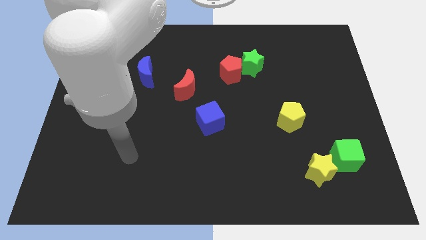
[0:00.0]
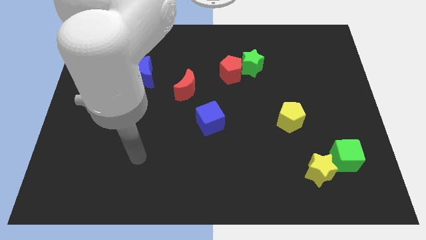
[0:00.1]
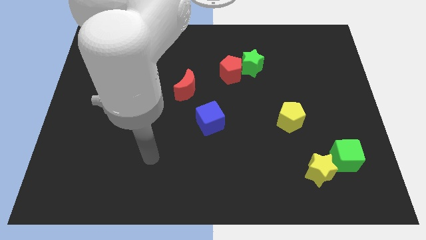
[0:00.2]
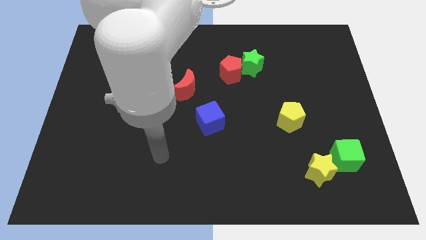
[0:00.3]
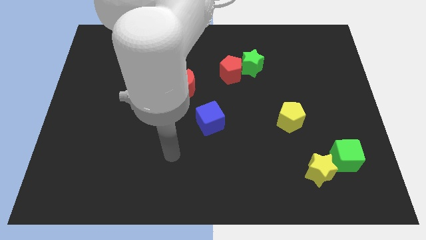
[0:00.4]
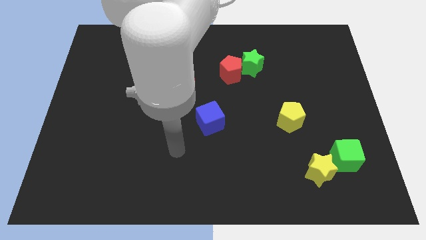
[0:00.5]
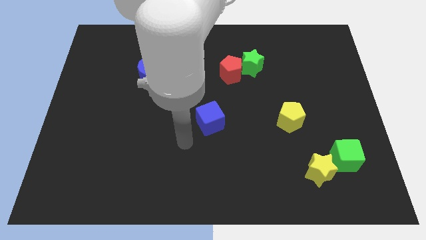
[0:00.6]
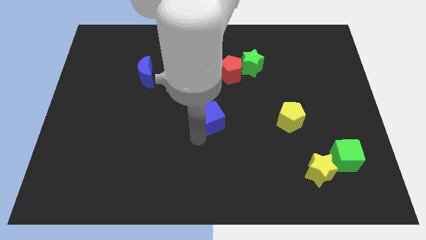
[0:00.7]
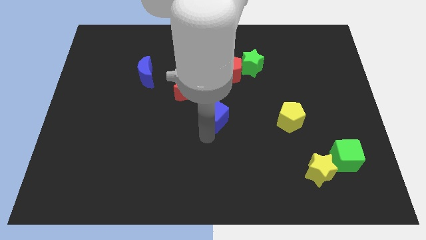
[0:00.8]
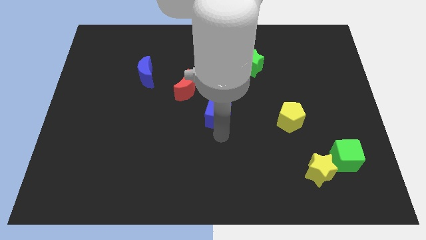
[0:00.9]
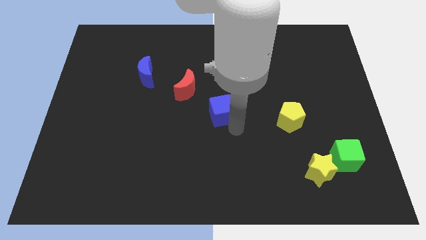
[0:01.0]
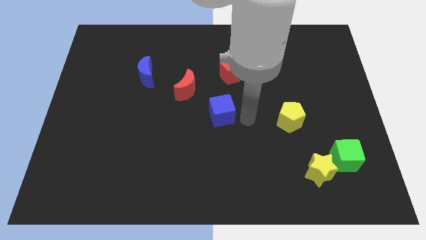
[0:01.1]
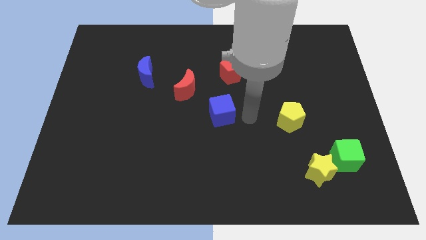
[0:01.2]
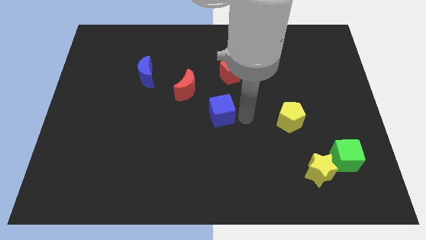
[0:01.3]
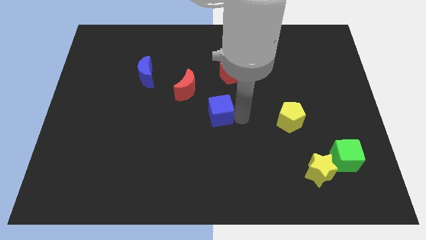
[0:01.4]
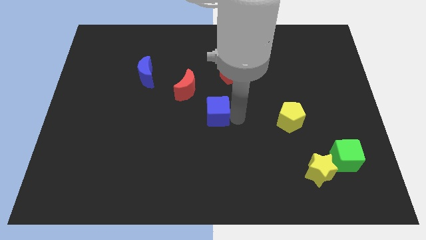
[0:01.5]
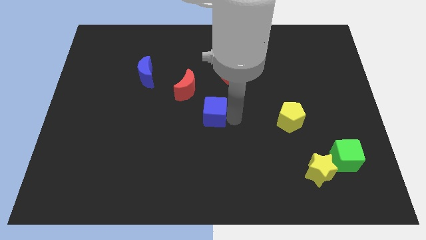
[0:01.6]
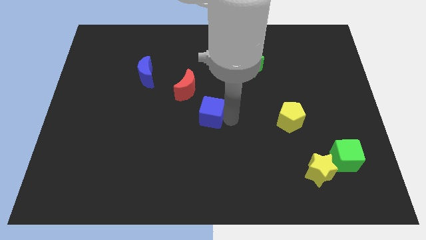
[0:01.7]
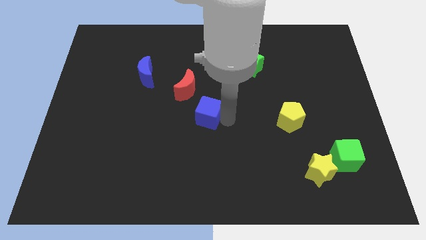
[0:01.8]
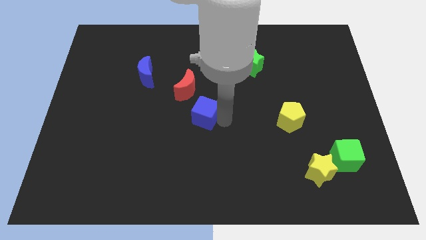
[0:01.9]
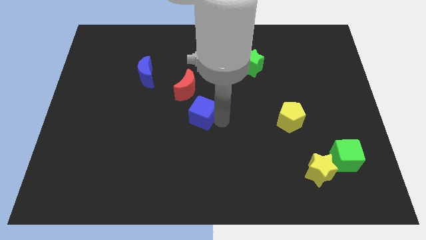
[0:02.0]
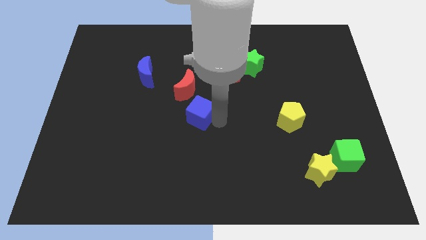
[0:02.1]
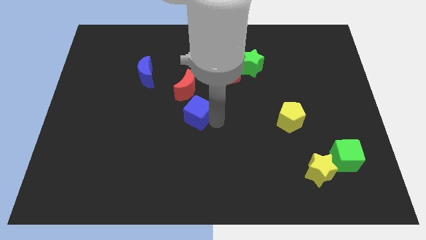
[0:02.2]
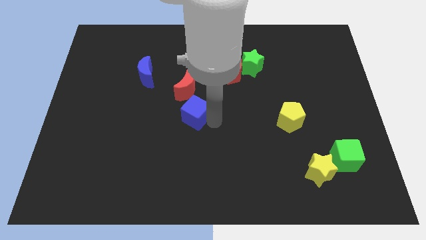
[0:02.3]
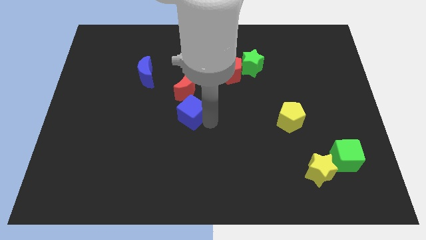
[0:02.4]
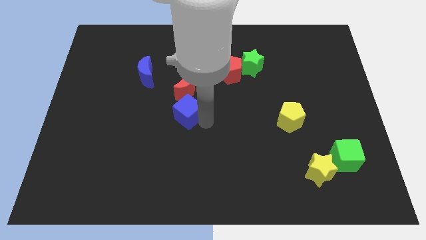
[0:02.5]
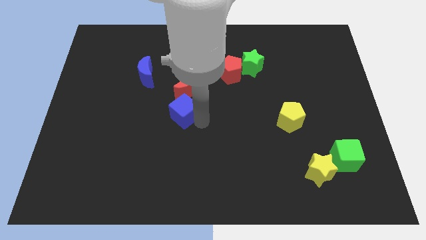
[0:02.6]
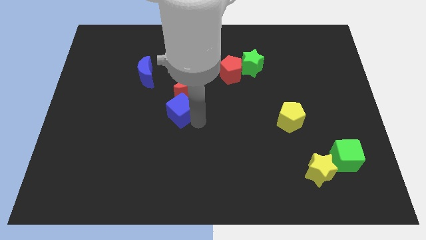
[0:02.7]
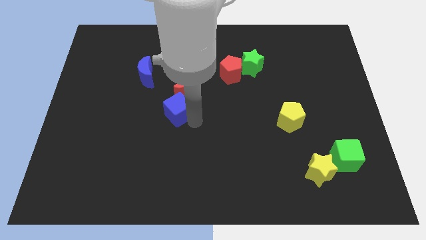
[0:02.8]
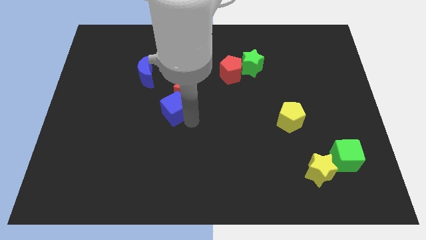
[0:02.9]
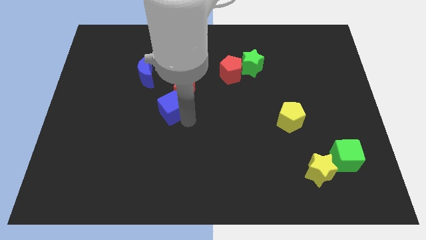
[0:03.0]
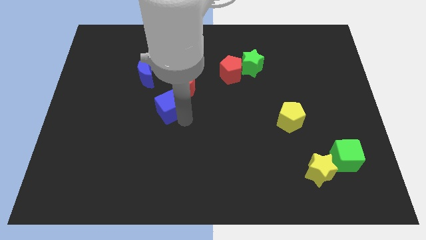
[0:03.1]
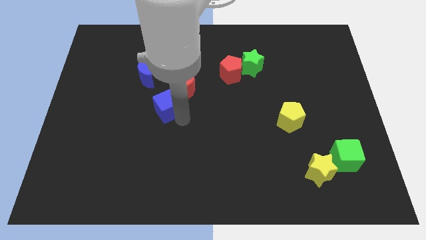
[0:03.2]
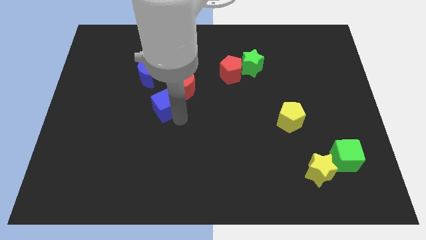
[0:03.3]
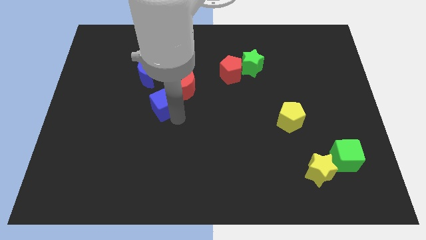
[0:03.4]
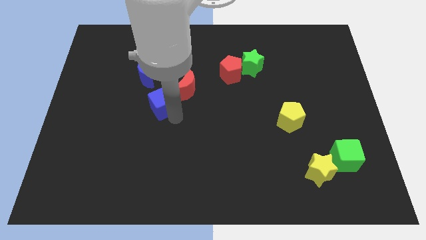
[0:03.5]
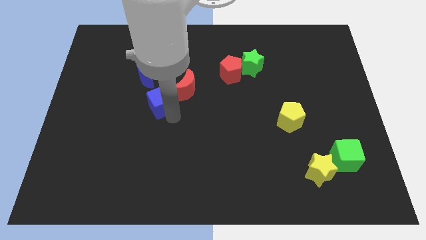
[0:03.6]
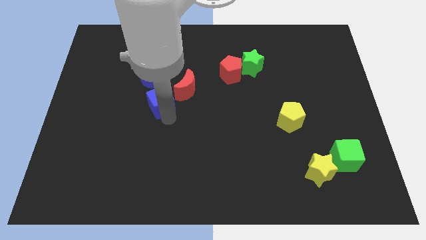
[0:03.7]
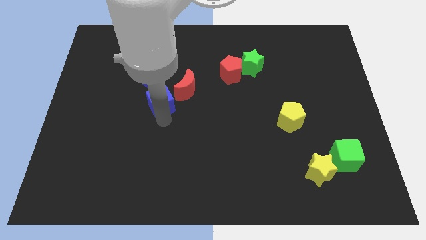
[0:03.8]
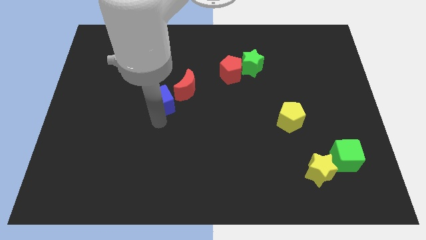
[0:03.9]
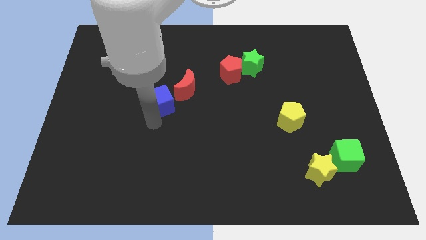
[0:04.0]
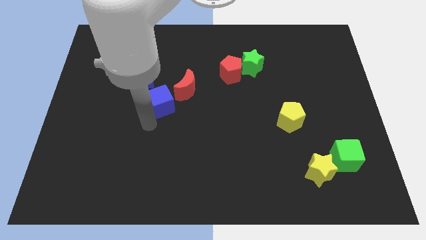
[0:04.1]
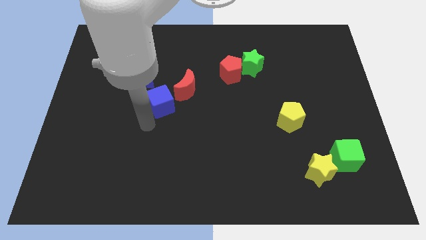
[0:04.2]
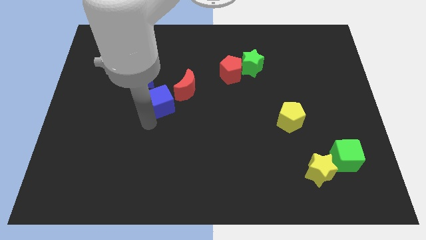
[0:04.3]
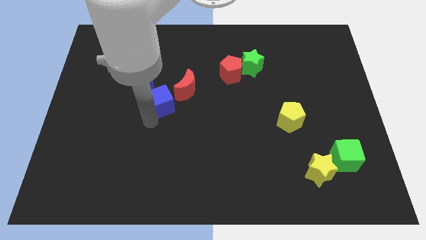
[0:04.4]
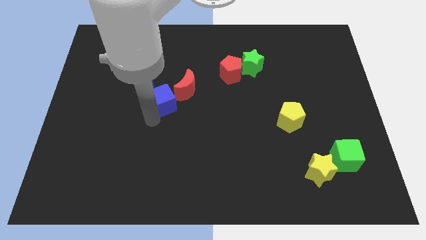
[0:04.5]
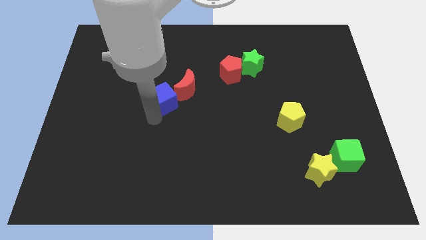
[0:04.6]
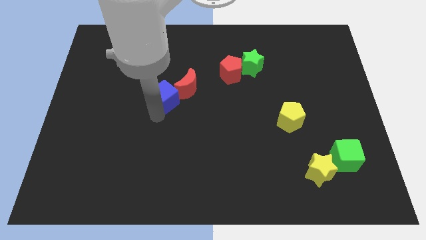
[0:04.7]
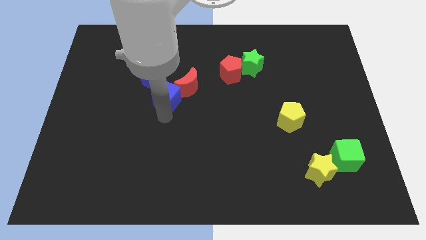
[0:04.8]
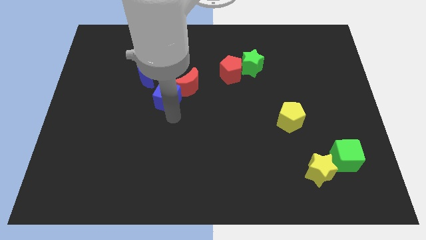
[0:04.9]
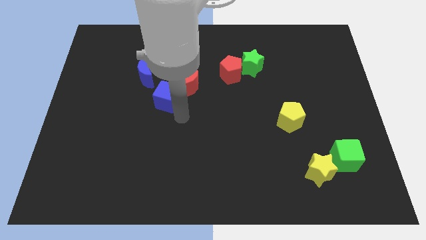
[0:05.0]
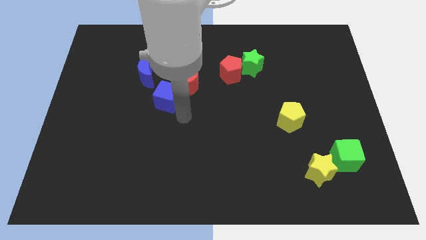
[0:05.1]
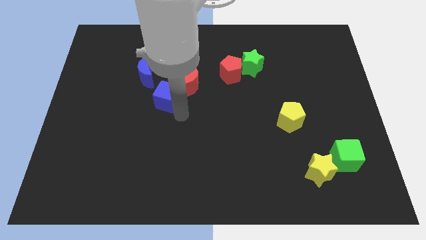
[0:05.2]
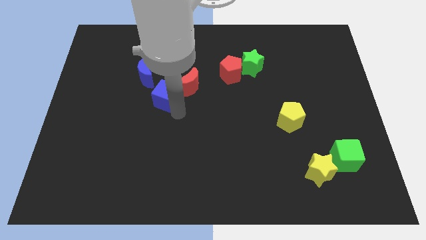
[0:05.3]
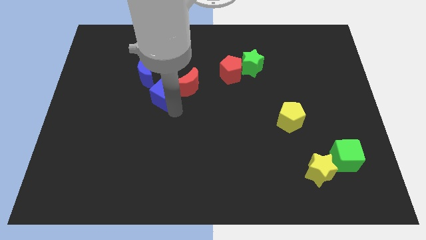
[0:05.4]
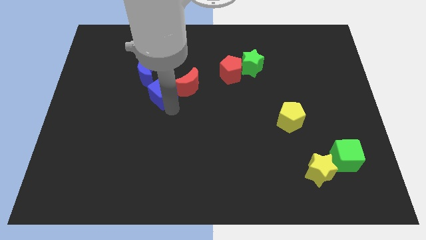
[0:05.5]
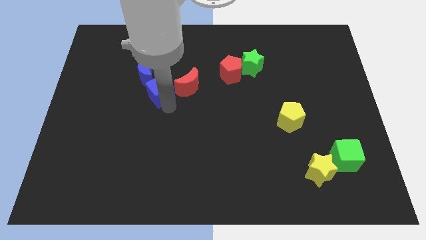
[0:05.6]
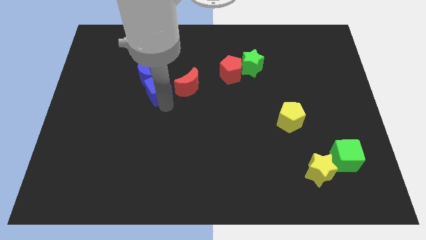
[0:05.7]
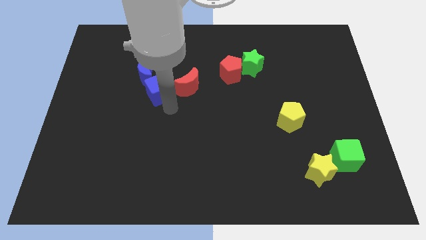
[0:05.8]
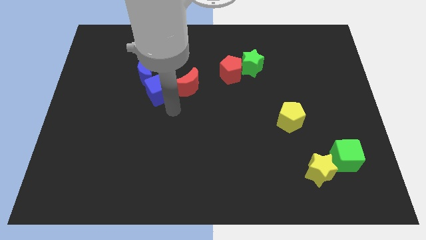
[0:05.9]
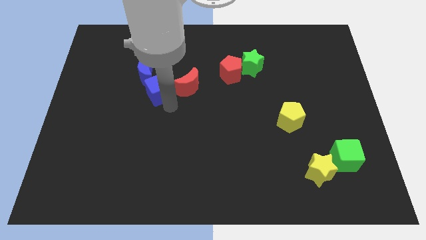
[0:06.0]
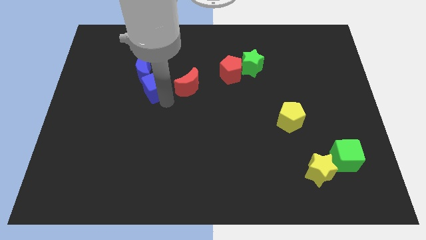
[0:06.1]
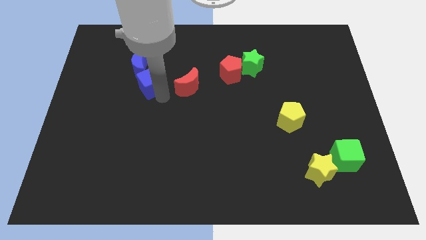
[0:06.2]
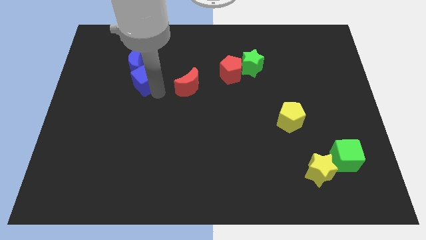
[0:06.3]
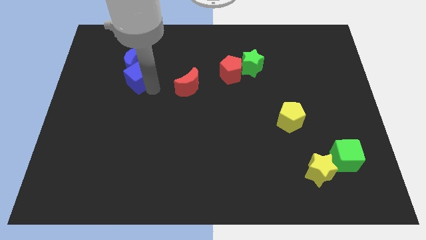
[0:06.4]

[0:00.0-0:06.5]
push the blue cube to the blue moon

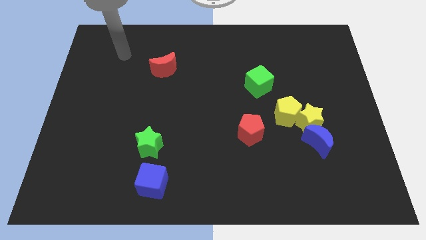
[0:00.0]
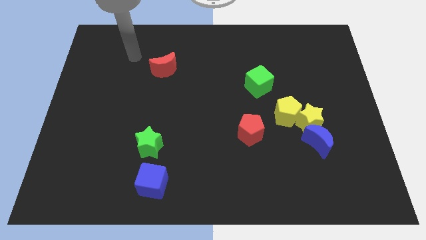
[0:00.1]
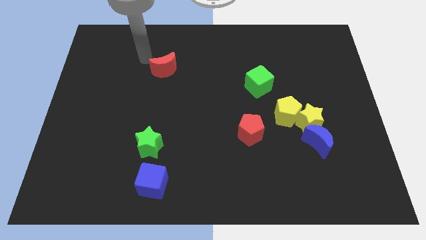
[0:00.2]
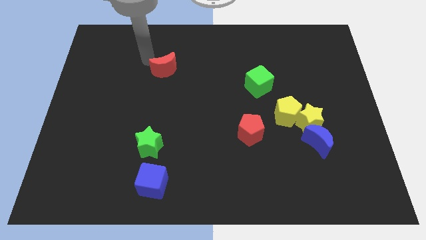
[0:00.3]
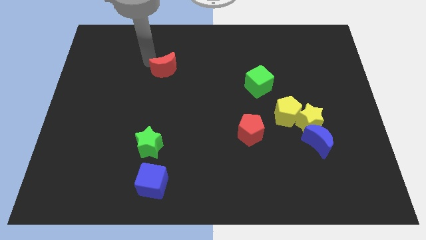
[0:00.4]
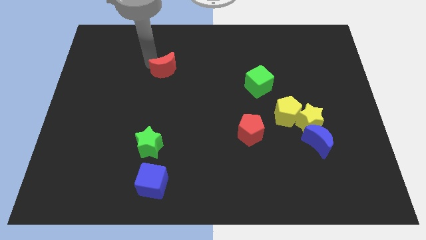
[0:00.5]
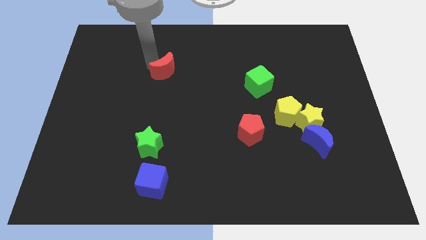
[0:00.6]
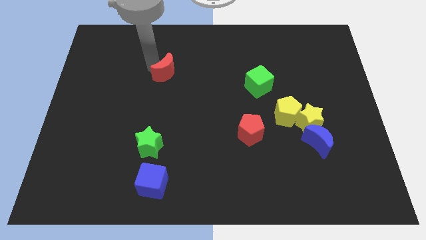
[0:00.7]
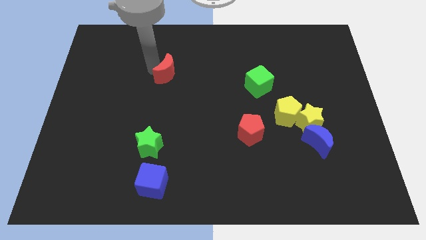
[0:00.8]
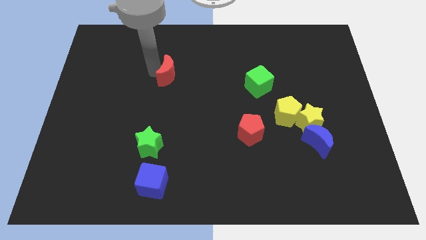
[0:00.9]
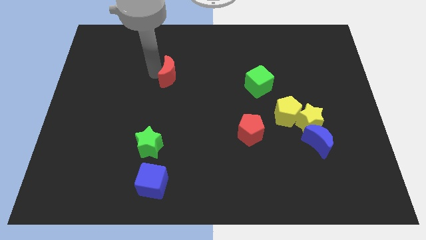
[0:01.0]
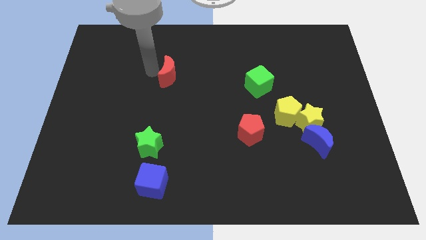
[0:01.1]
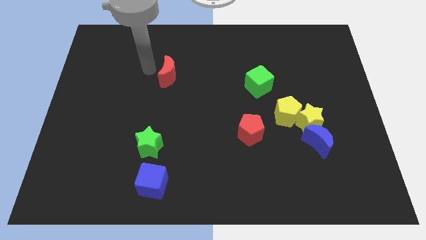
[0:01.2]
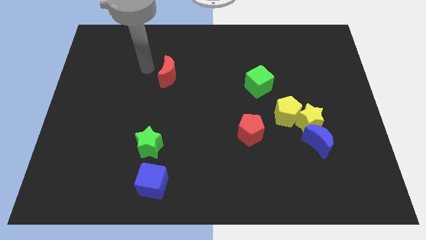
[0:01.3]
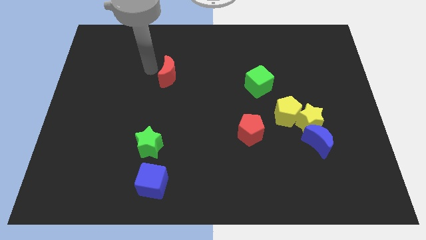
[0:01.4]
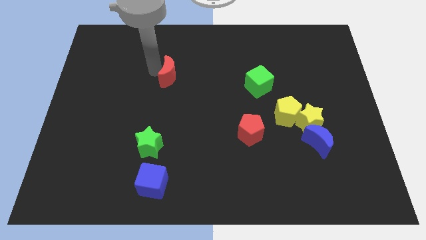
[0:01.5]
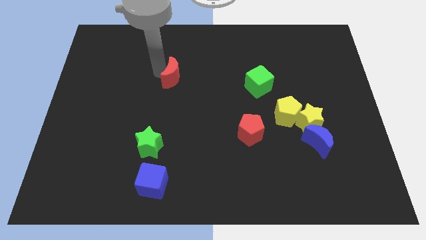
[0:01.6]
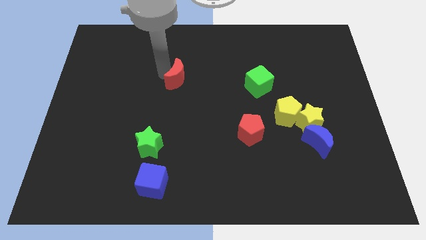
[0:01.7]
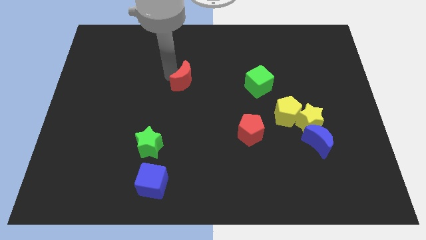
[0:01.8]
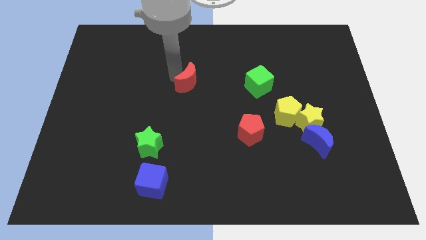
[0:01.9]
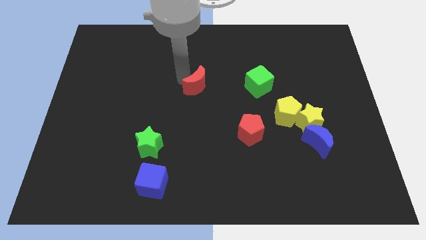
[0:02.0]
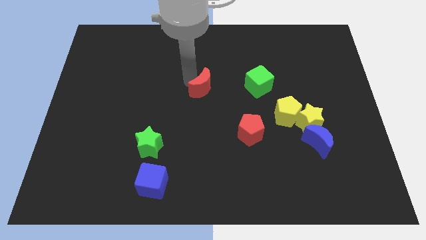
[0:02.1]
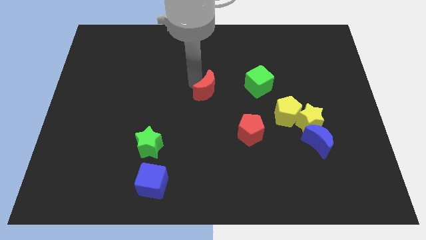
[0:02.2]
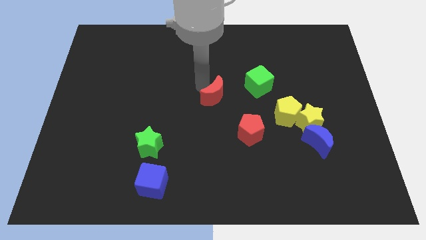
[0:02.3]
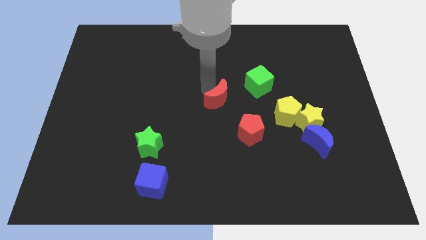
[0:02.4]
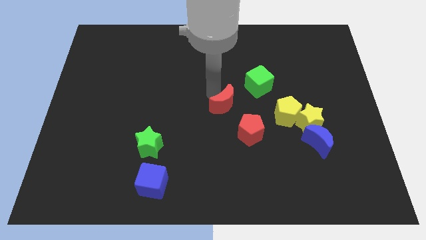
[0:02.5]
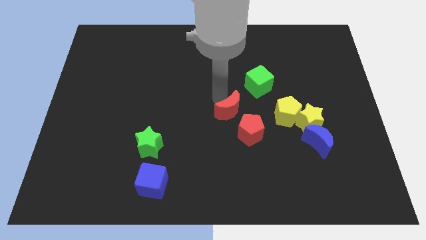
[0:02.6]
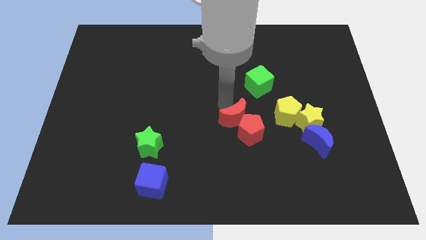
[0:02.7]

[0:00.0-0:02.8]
push the red moon towards the red pentagon
